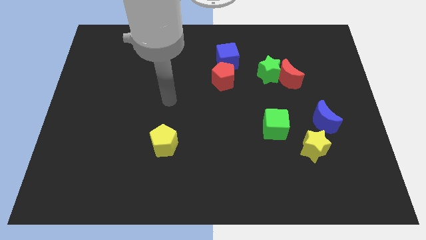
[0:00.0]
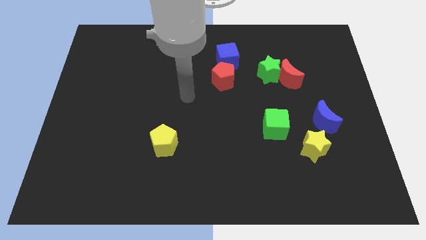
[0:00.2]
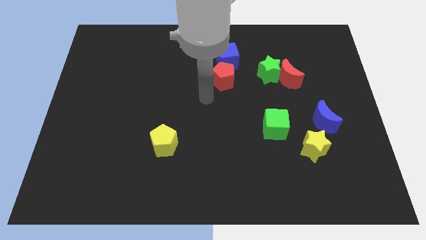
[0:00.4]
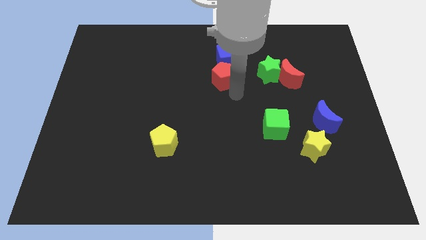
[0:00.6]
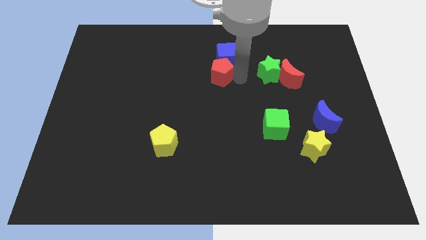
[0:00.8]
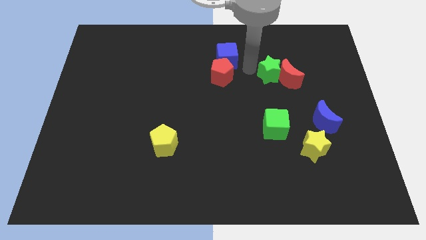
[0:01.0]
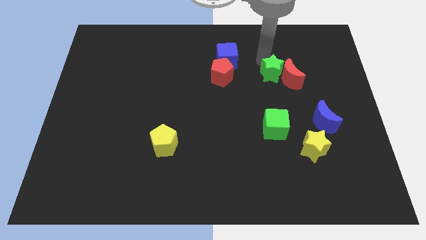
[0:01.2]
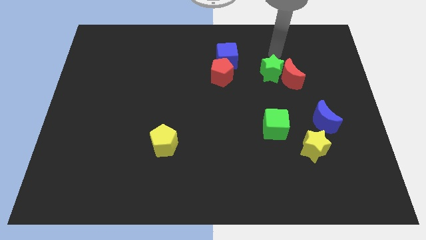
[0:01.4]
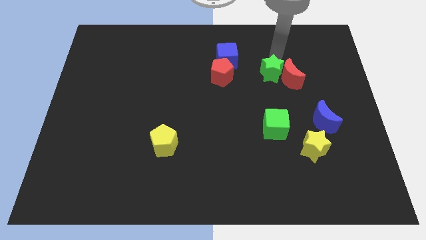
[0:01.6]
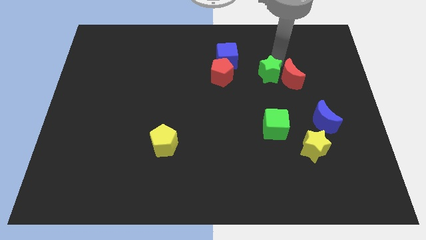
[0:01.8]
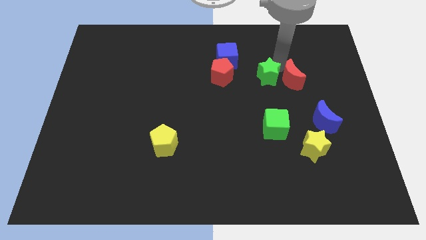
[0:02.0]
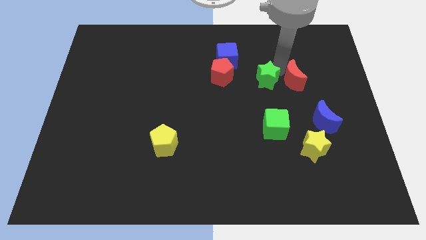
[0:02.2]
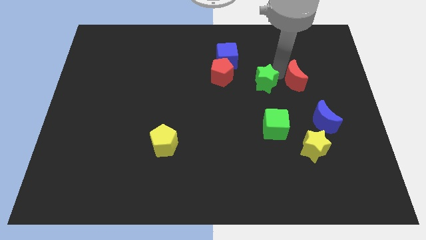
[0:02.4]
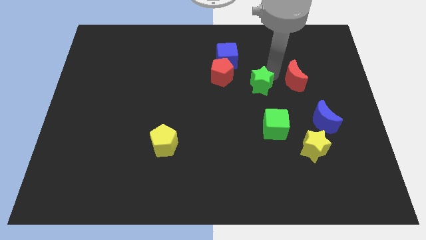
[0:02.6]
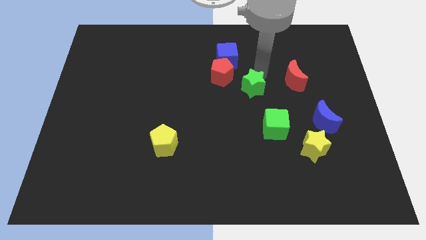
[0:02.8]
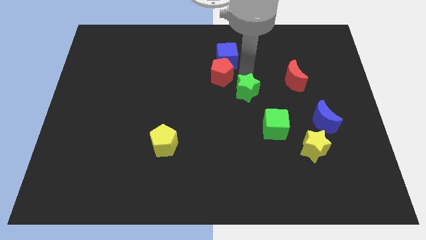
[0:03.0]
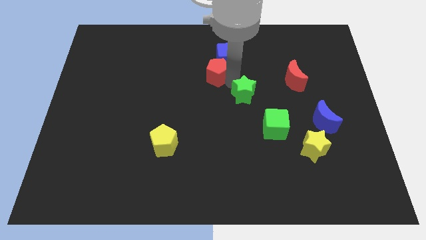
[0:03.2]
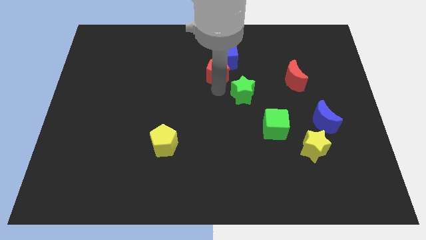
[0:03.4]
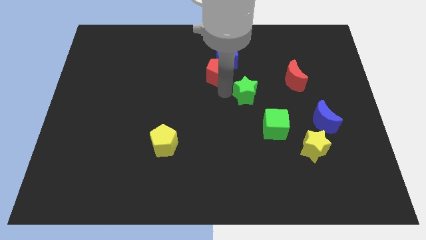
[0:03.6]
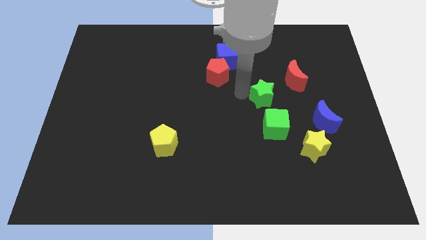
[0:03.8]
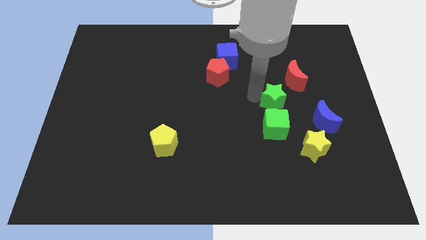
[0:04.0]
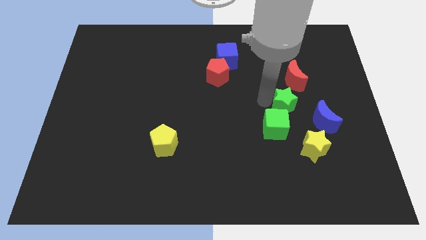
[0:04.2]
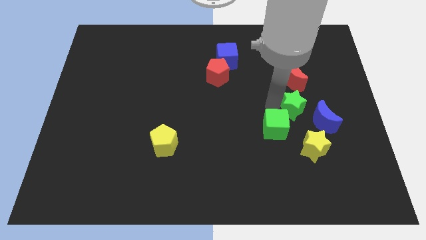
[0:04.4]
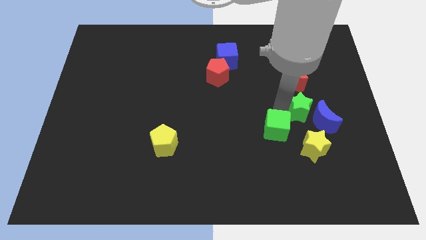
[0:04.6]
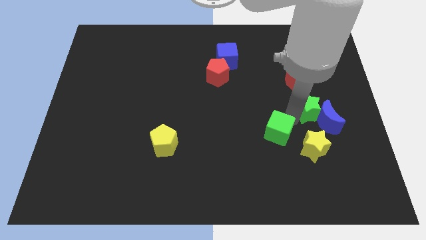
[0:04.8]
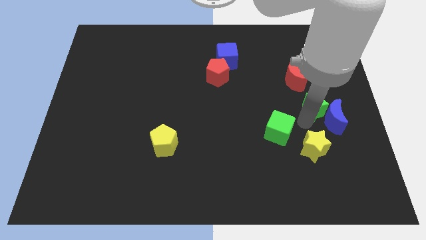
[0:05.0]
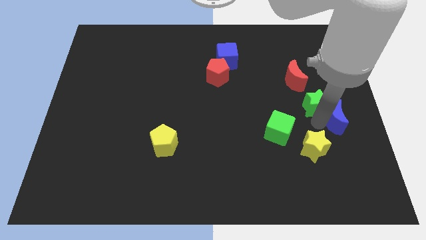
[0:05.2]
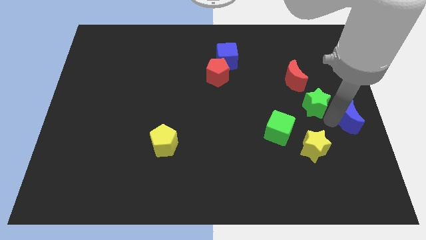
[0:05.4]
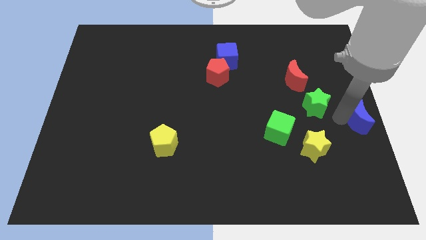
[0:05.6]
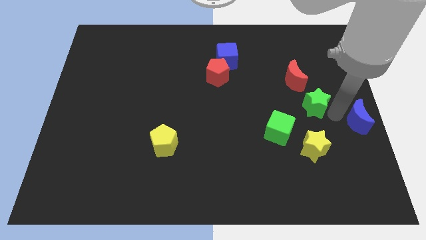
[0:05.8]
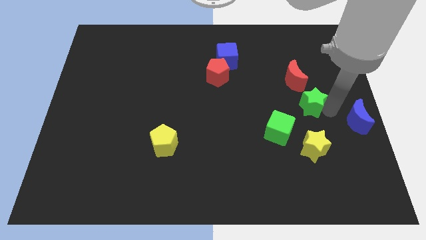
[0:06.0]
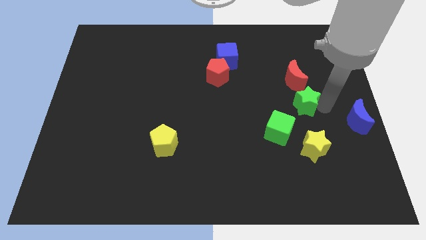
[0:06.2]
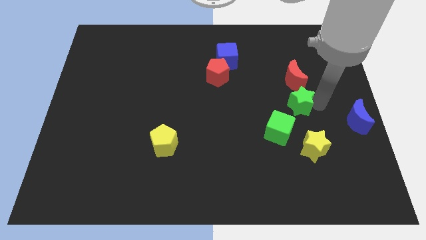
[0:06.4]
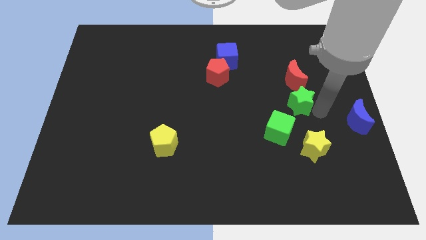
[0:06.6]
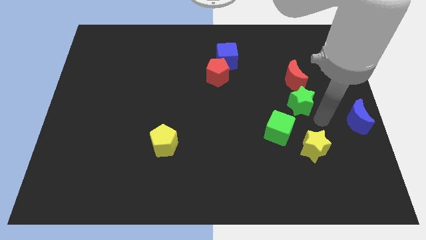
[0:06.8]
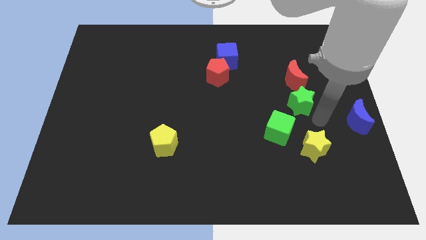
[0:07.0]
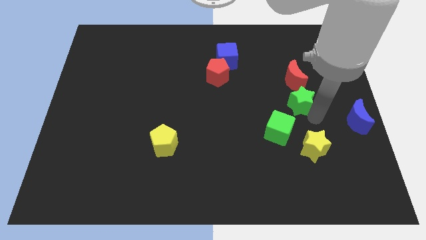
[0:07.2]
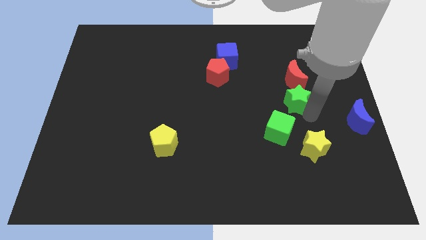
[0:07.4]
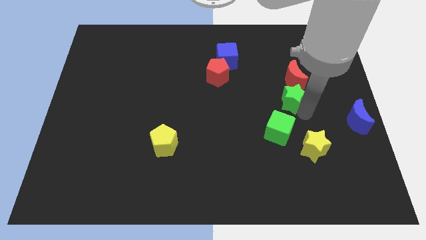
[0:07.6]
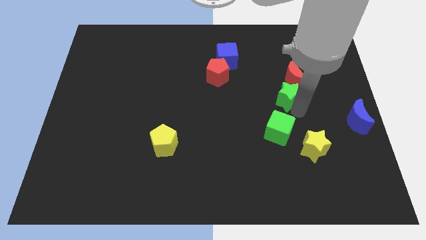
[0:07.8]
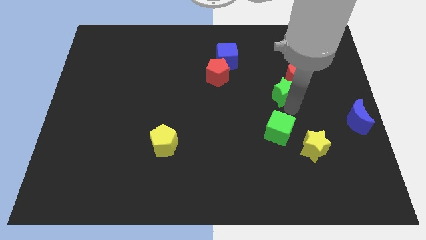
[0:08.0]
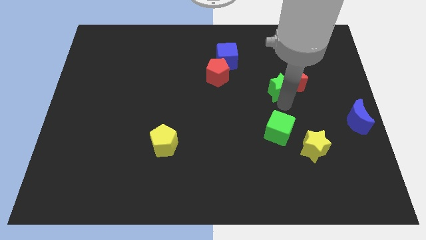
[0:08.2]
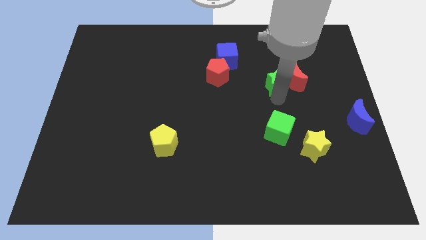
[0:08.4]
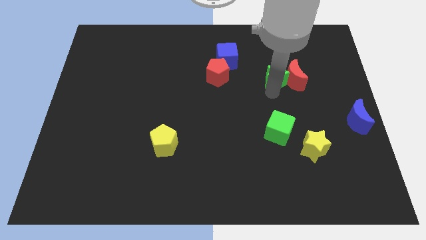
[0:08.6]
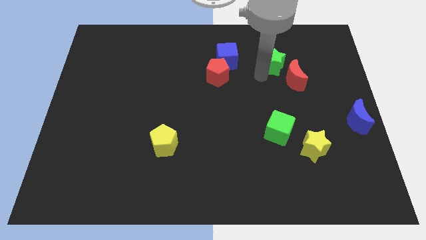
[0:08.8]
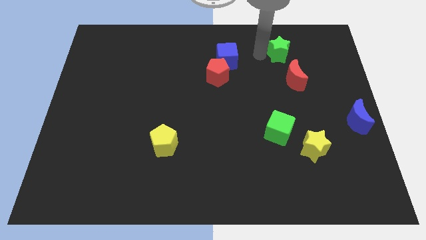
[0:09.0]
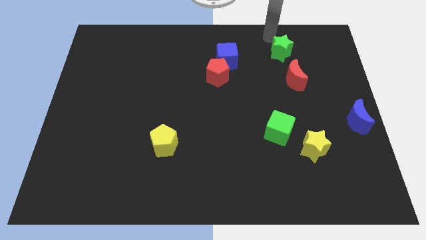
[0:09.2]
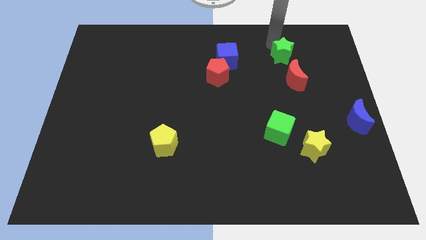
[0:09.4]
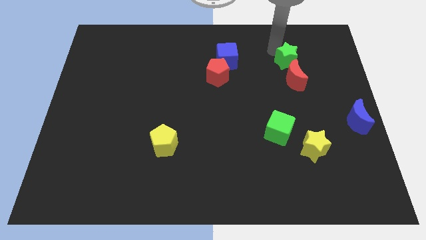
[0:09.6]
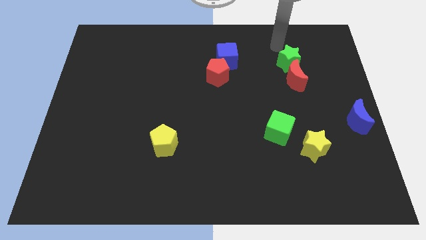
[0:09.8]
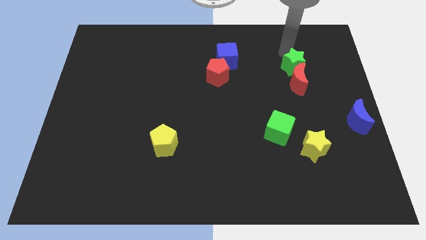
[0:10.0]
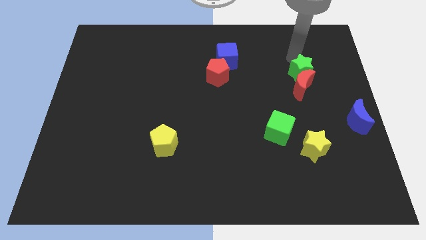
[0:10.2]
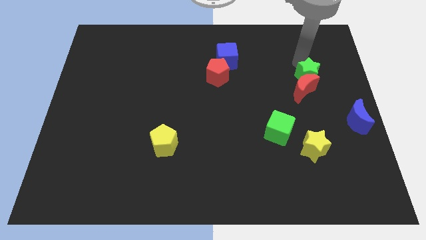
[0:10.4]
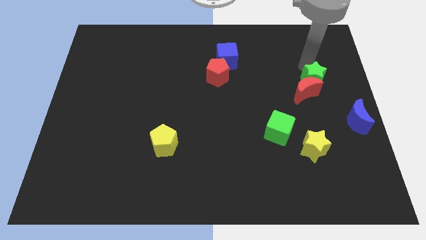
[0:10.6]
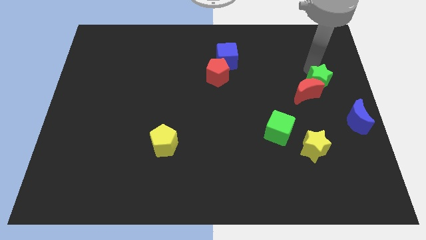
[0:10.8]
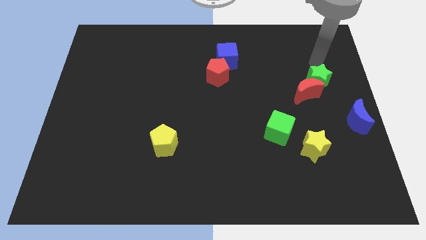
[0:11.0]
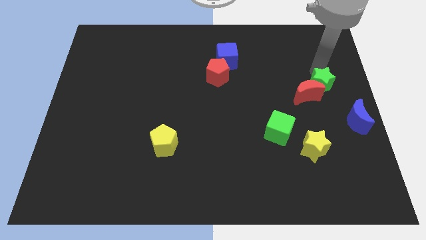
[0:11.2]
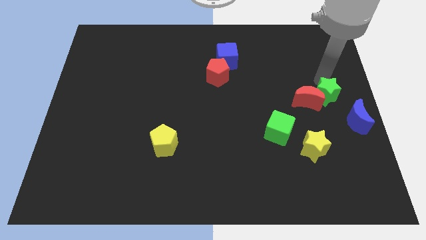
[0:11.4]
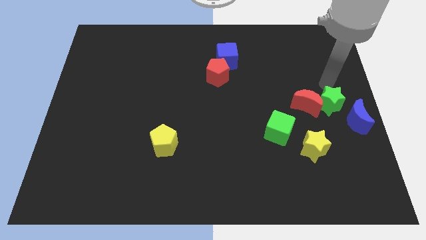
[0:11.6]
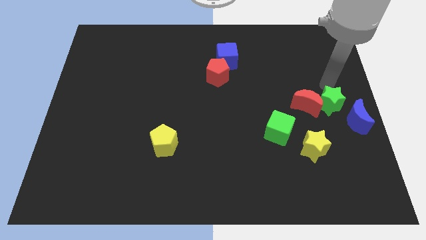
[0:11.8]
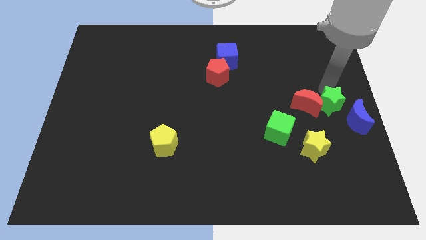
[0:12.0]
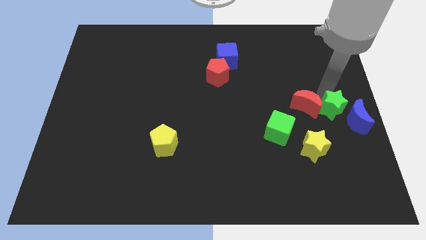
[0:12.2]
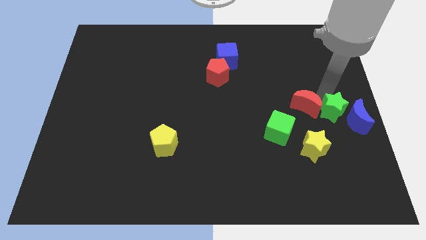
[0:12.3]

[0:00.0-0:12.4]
move the green star to the top right side of the yellow star

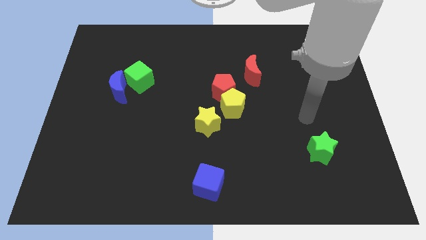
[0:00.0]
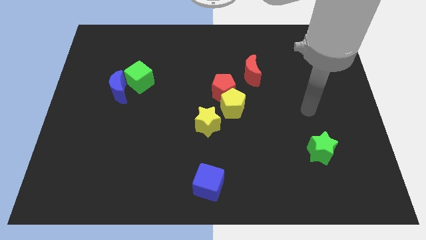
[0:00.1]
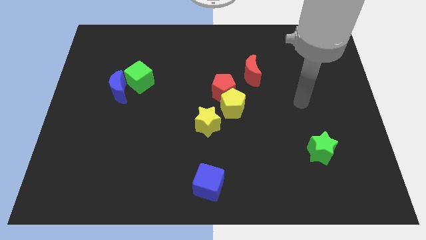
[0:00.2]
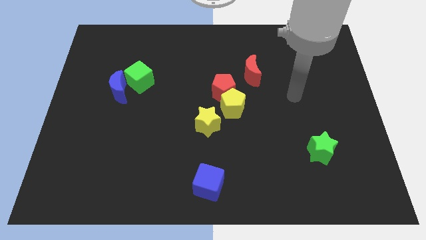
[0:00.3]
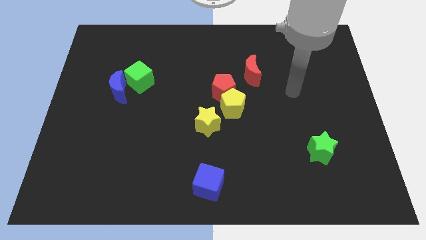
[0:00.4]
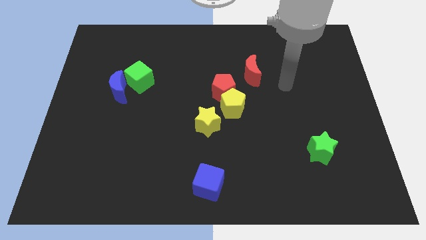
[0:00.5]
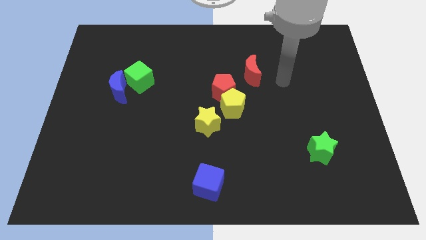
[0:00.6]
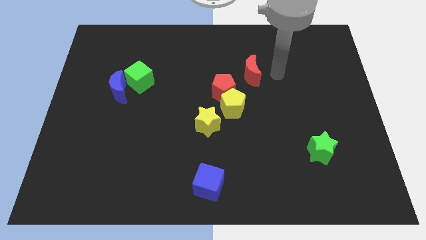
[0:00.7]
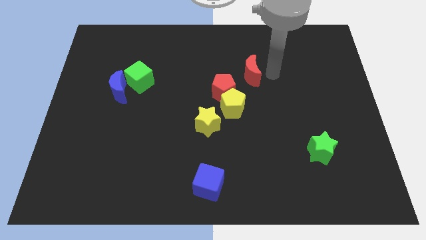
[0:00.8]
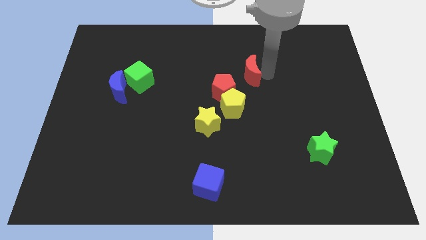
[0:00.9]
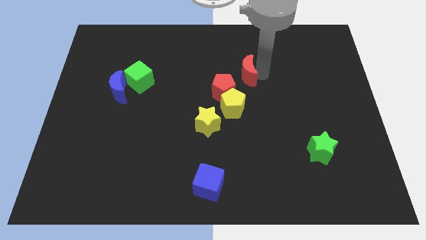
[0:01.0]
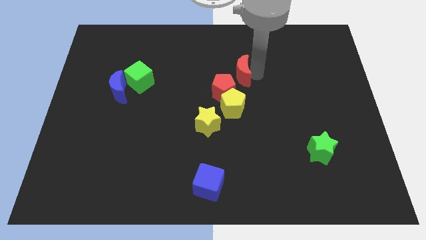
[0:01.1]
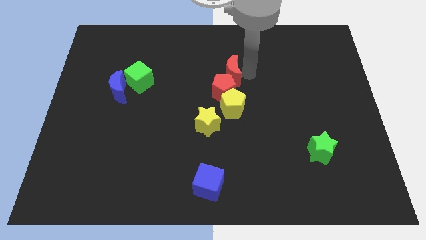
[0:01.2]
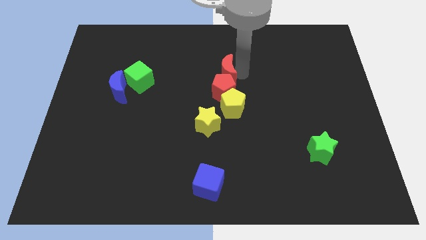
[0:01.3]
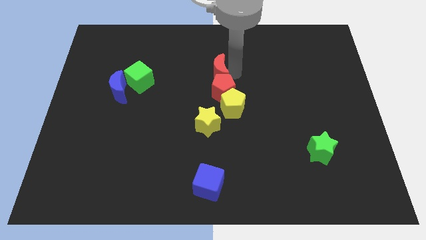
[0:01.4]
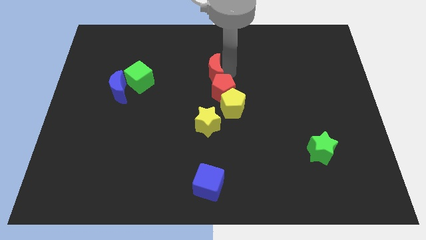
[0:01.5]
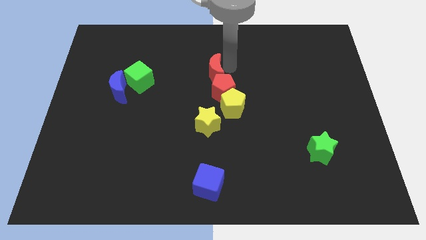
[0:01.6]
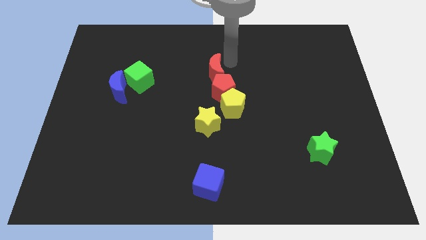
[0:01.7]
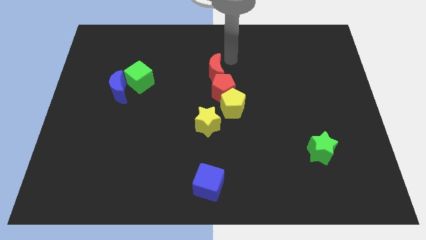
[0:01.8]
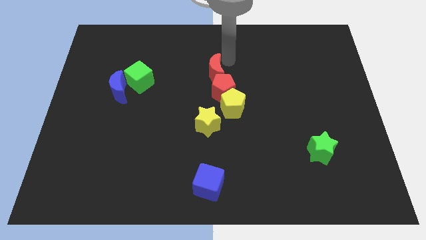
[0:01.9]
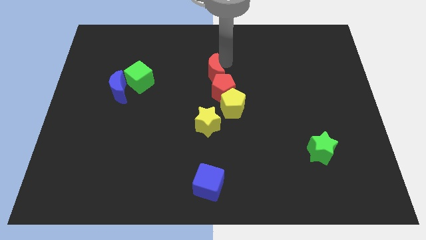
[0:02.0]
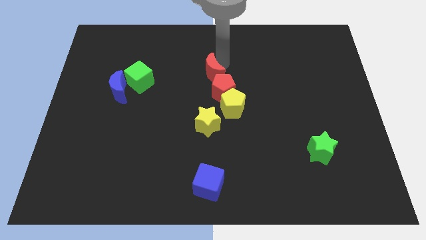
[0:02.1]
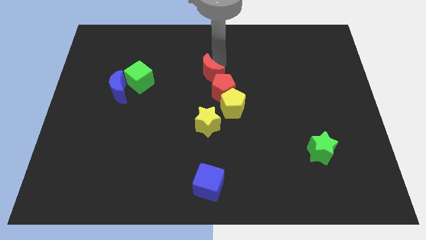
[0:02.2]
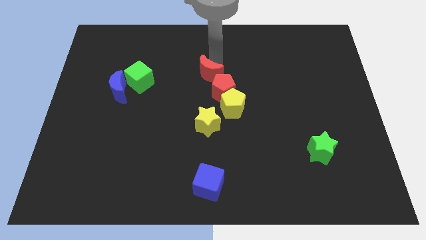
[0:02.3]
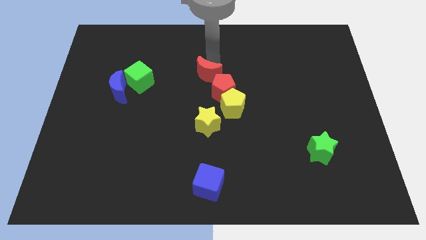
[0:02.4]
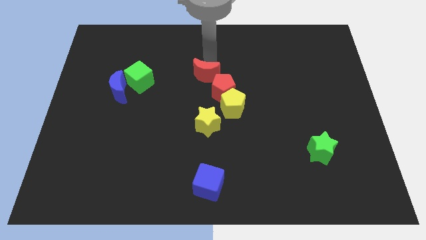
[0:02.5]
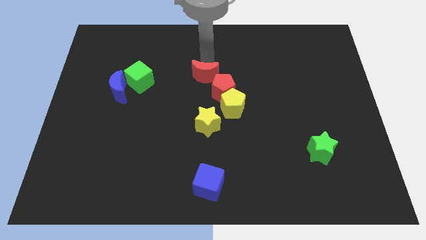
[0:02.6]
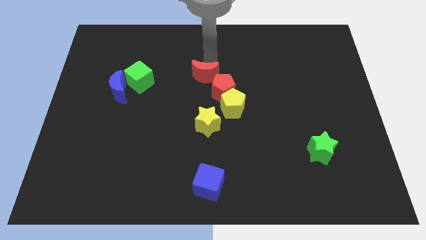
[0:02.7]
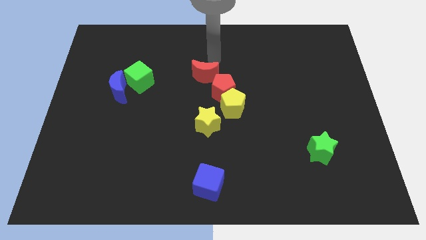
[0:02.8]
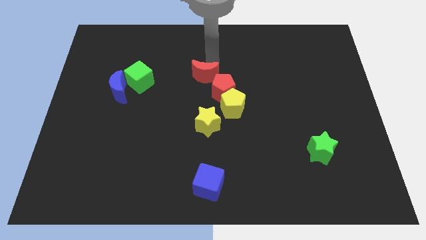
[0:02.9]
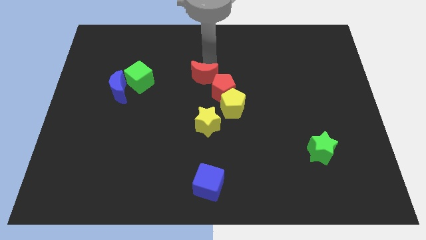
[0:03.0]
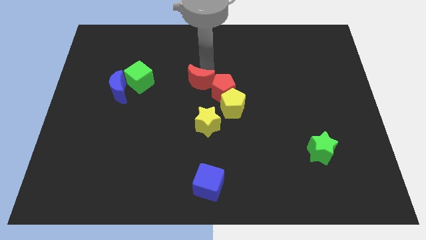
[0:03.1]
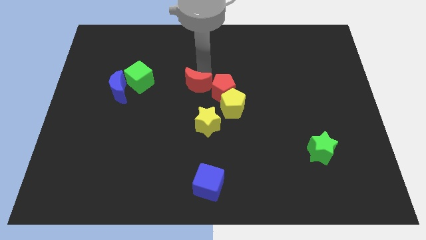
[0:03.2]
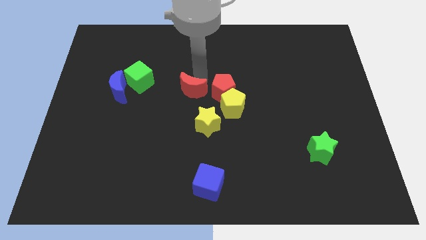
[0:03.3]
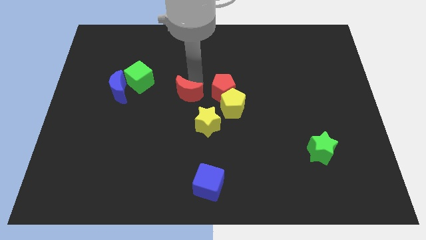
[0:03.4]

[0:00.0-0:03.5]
move the red moon just left of the yellow pentagon
